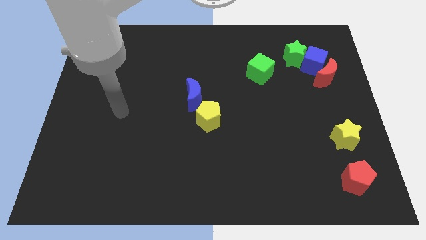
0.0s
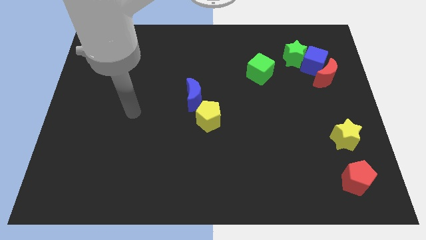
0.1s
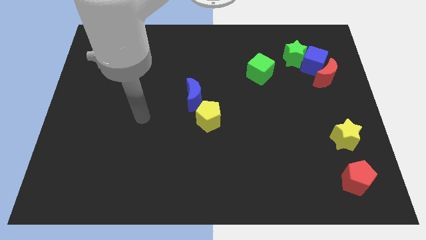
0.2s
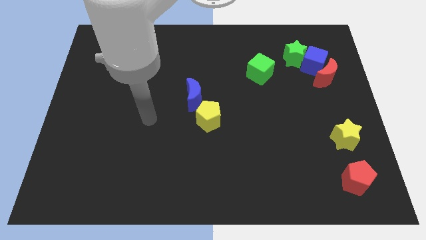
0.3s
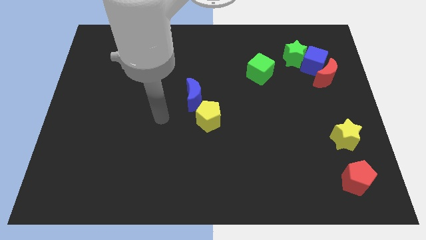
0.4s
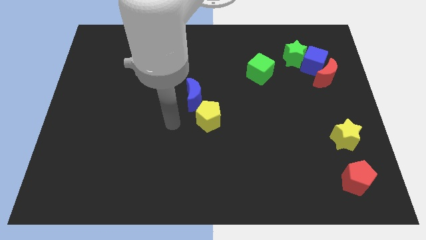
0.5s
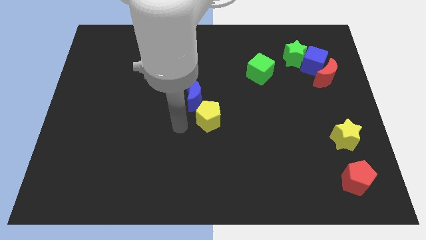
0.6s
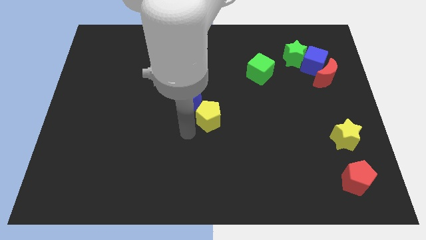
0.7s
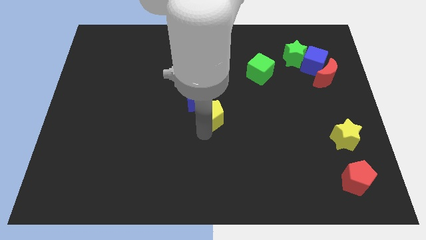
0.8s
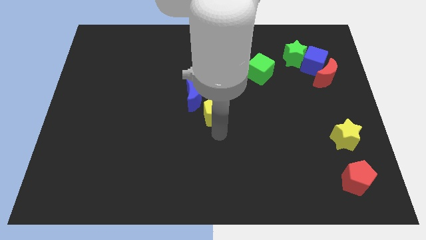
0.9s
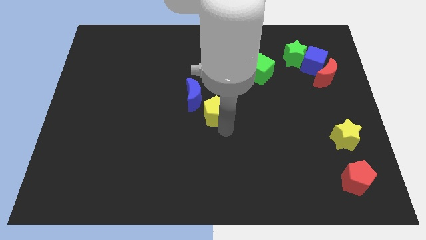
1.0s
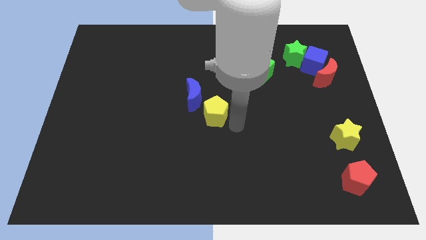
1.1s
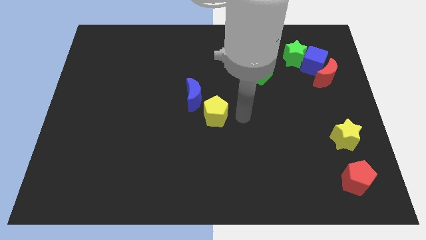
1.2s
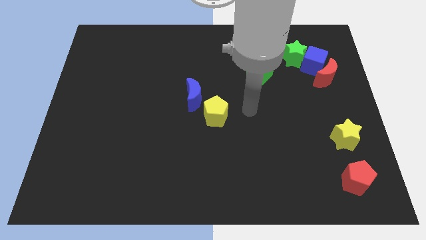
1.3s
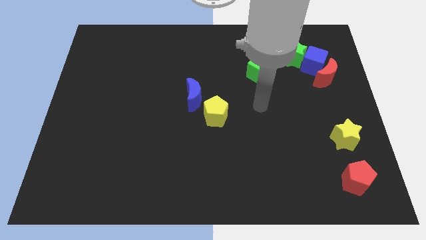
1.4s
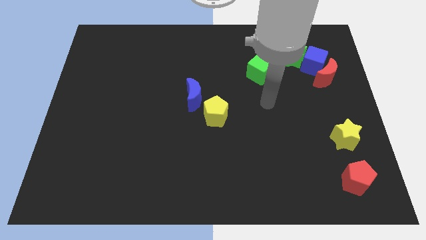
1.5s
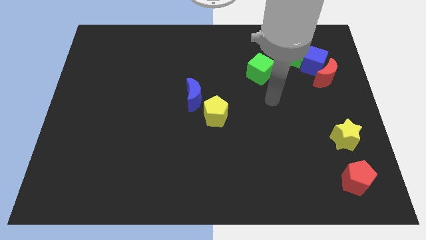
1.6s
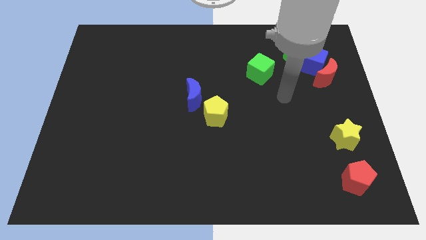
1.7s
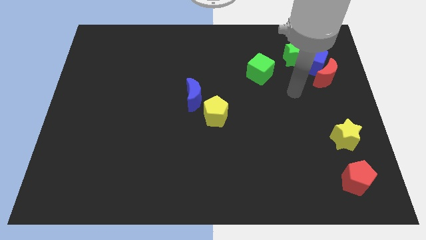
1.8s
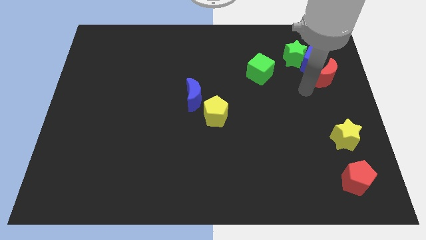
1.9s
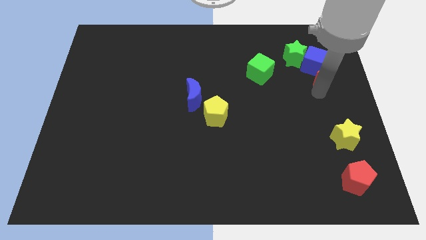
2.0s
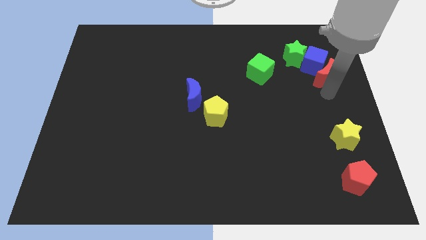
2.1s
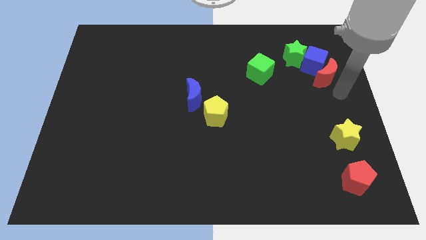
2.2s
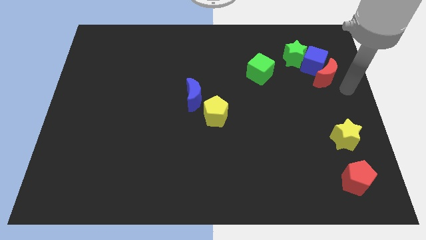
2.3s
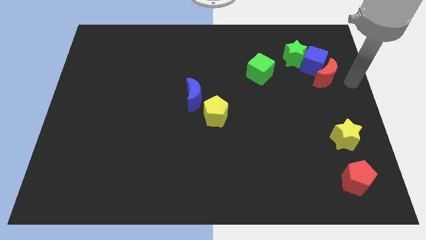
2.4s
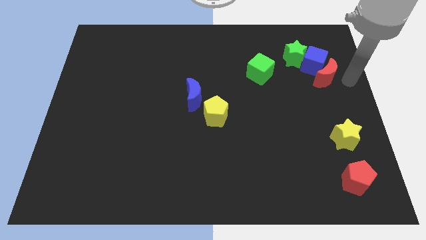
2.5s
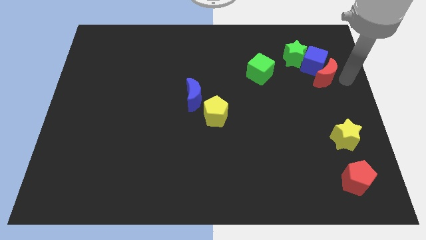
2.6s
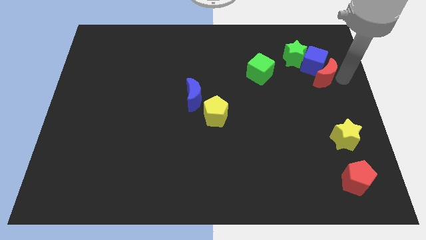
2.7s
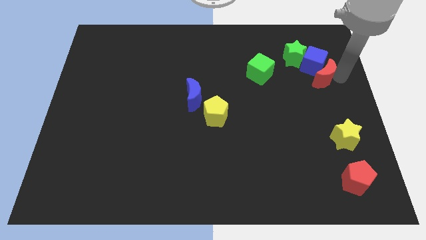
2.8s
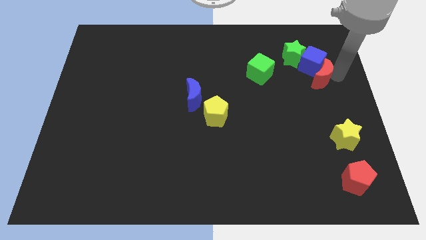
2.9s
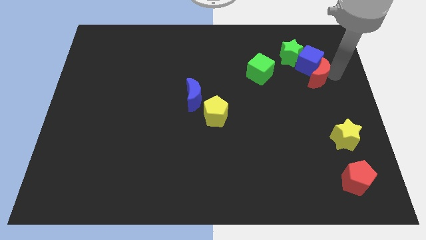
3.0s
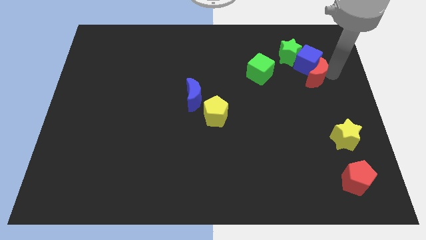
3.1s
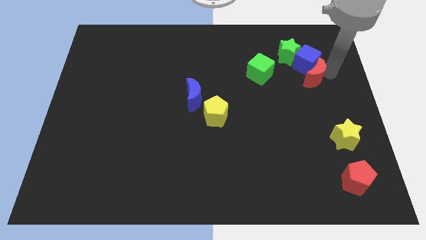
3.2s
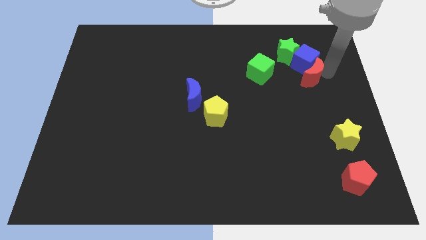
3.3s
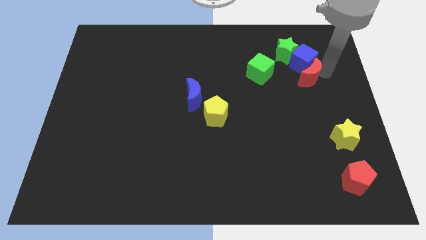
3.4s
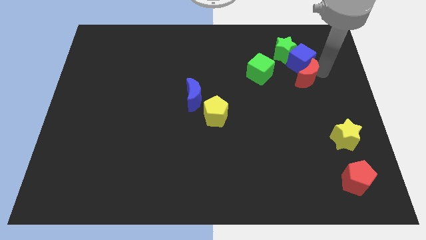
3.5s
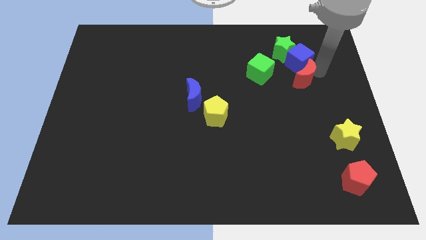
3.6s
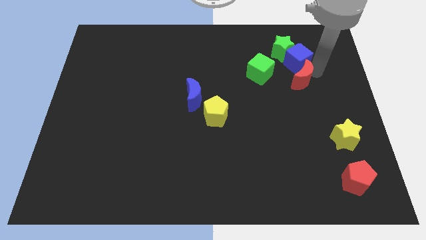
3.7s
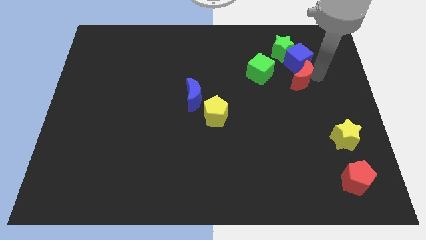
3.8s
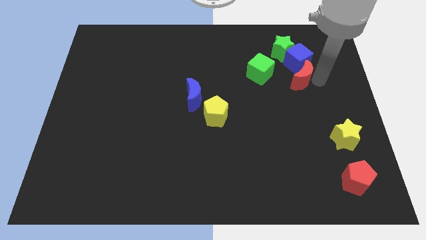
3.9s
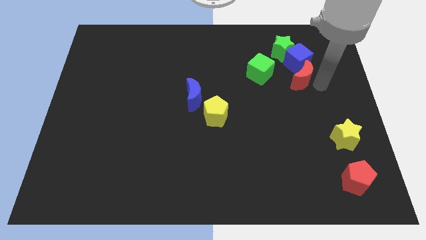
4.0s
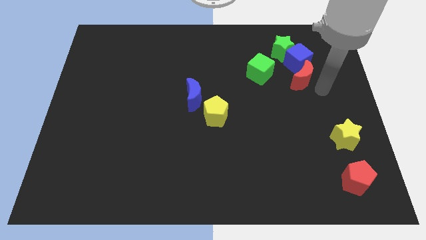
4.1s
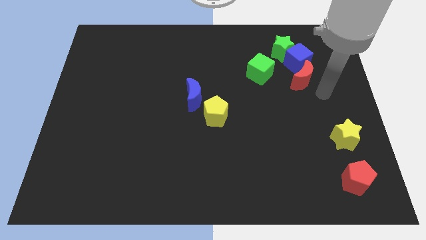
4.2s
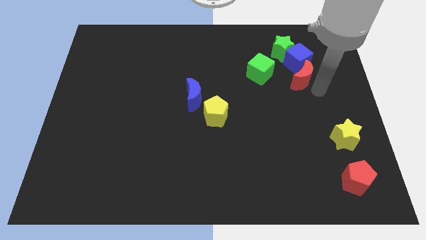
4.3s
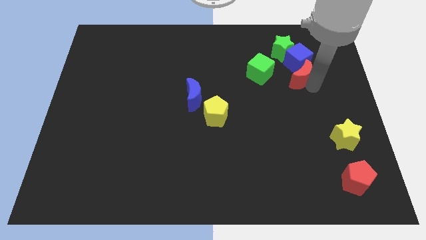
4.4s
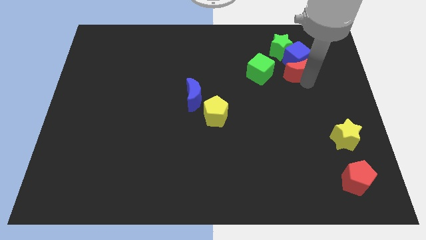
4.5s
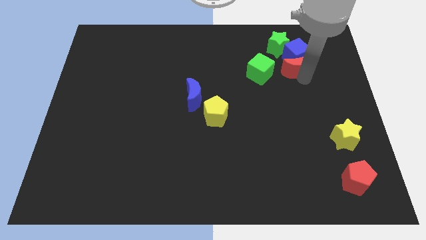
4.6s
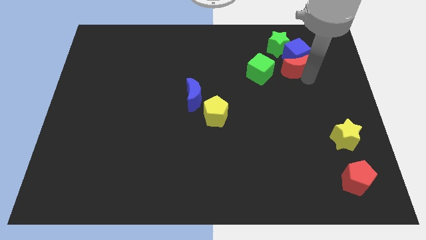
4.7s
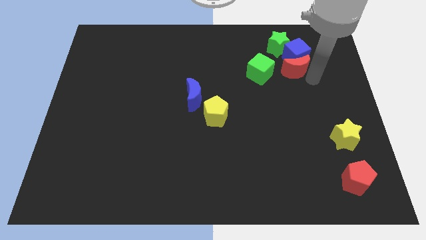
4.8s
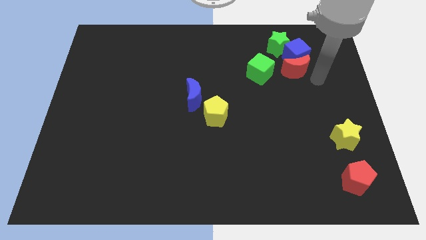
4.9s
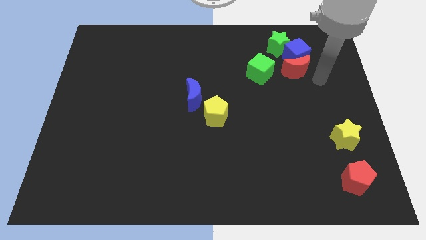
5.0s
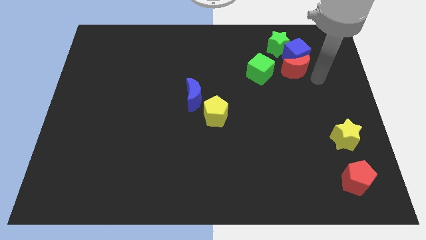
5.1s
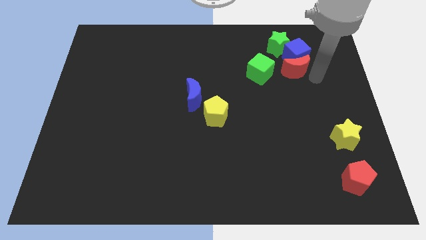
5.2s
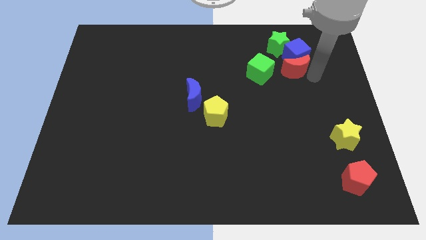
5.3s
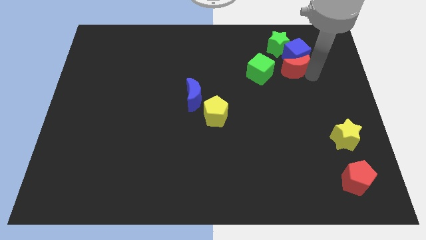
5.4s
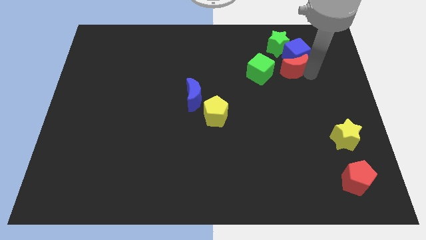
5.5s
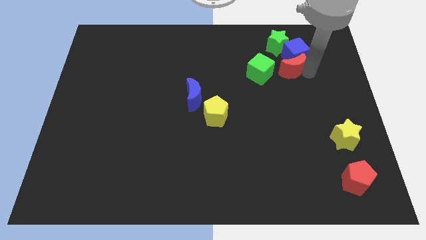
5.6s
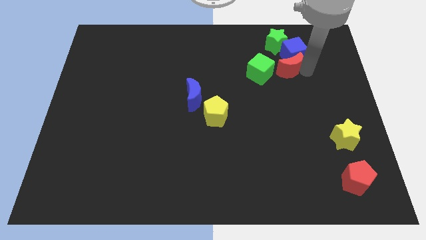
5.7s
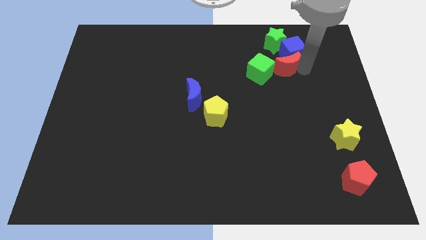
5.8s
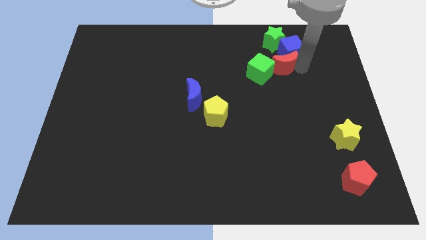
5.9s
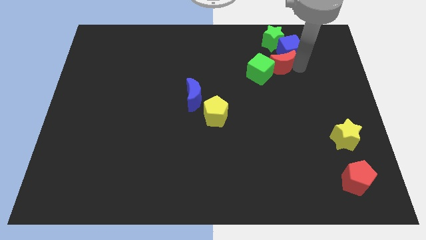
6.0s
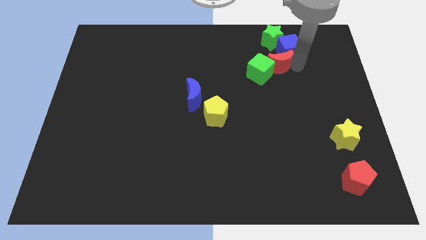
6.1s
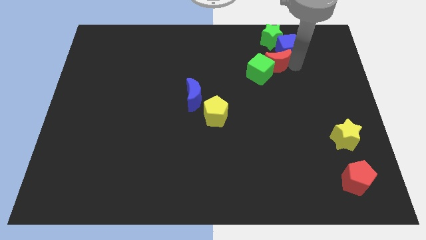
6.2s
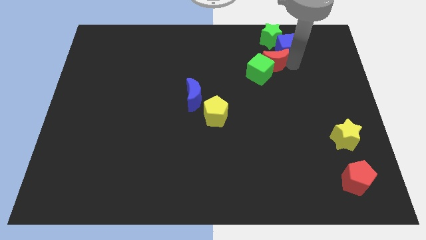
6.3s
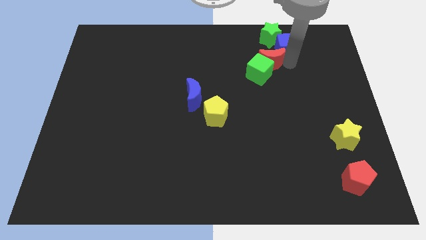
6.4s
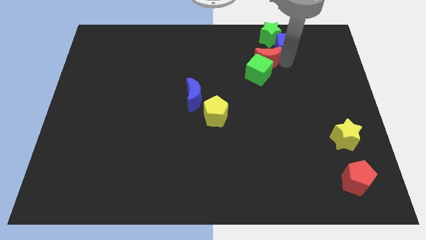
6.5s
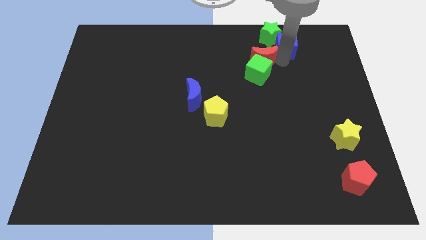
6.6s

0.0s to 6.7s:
put the red moon to the top left side of the green cube
